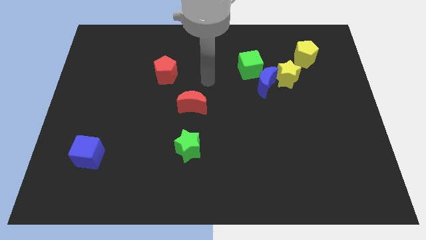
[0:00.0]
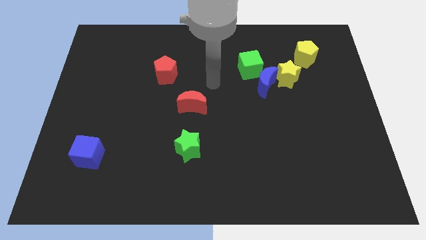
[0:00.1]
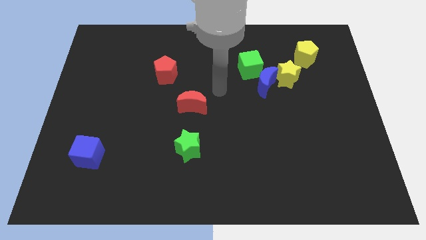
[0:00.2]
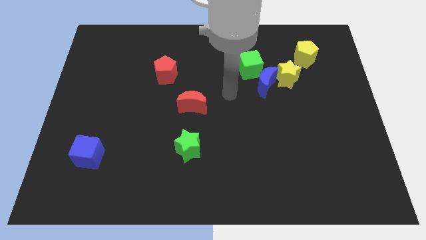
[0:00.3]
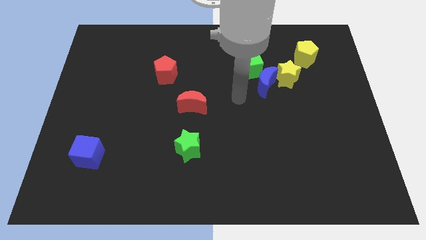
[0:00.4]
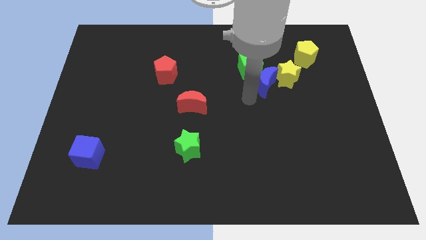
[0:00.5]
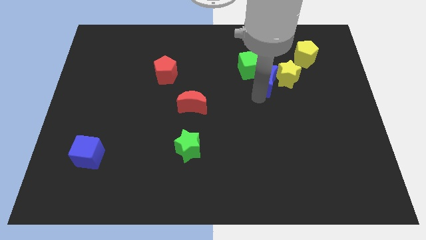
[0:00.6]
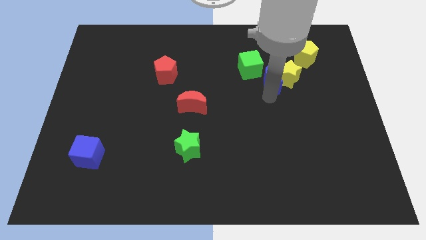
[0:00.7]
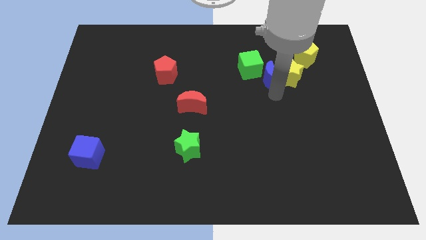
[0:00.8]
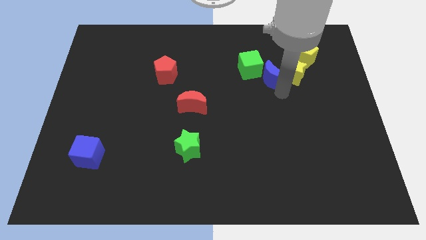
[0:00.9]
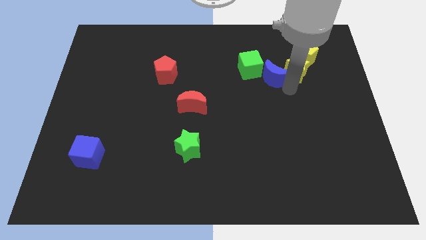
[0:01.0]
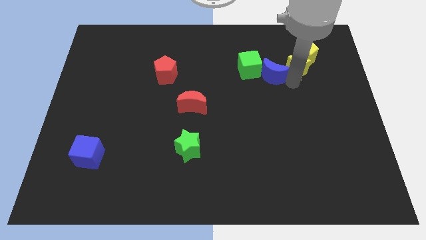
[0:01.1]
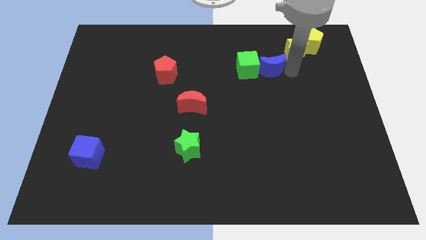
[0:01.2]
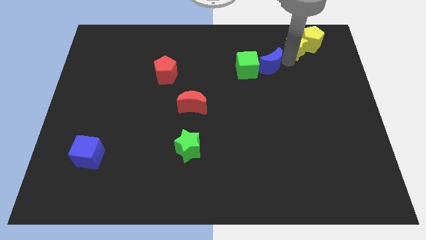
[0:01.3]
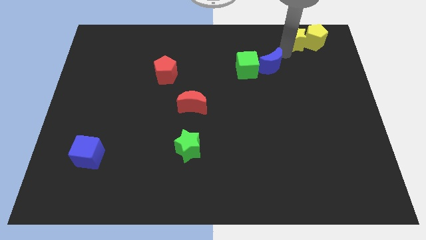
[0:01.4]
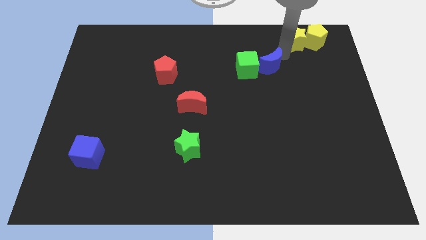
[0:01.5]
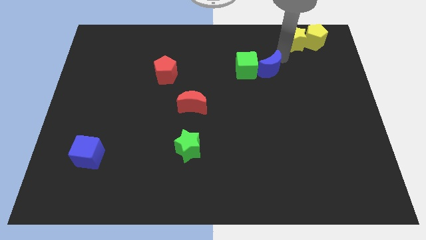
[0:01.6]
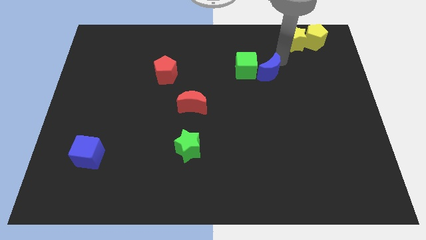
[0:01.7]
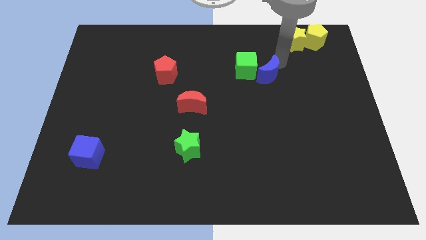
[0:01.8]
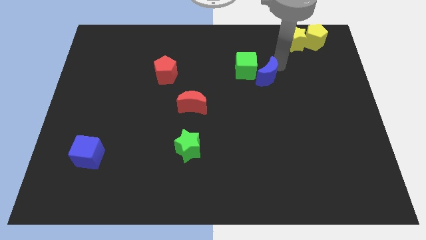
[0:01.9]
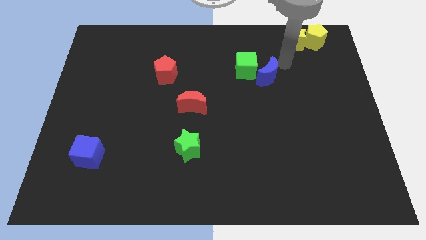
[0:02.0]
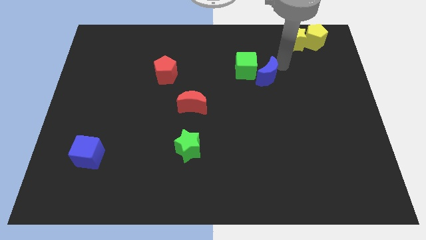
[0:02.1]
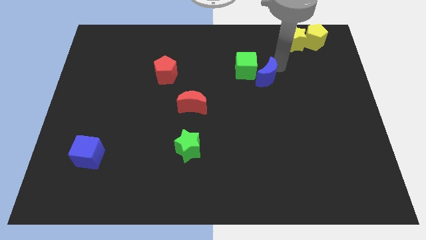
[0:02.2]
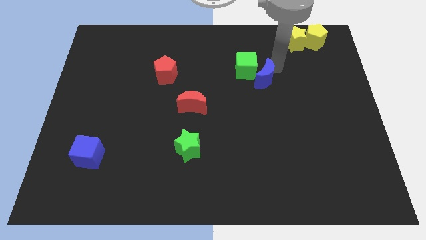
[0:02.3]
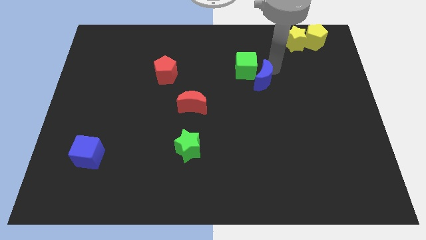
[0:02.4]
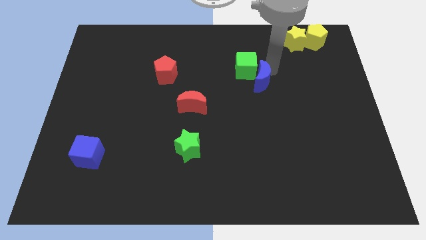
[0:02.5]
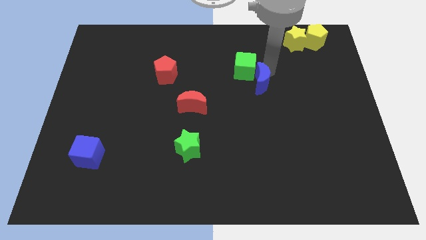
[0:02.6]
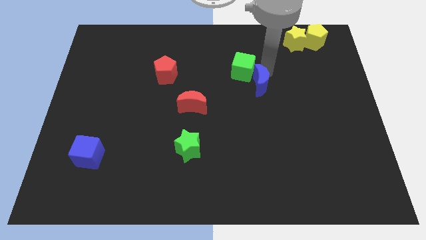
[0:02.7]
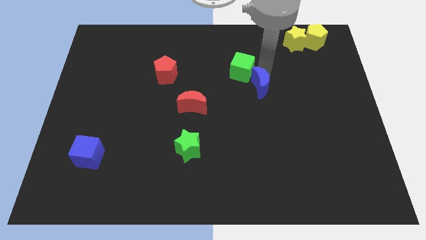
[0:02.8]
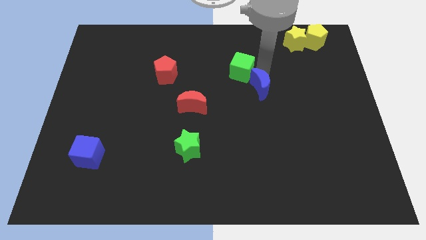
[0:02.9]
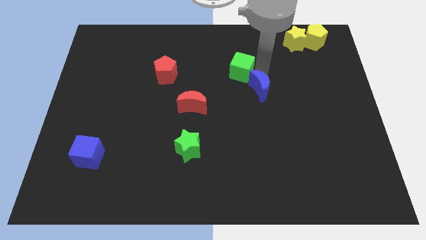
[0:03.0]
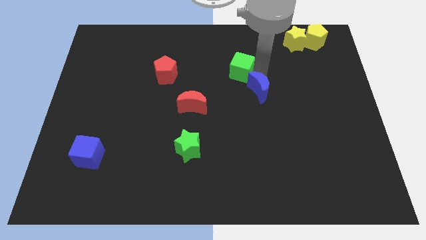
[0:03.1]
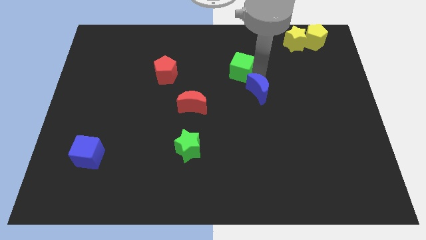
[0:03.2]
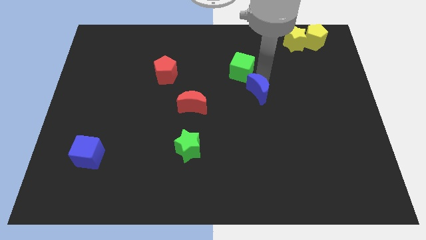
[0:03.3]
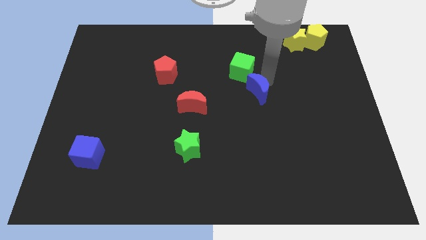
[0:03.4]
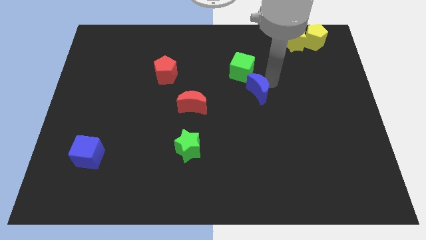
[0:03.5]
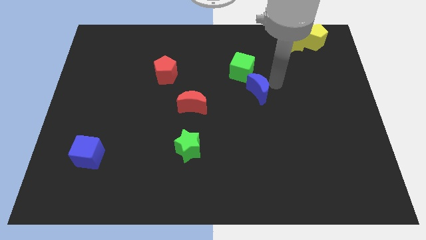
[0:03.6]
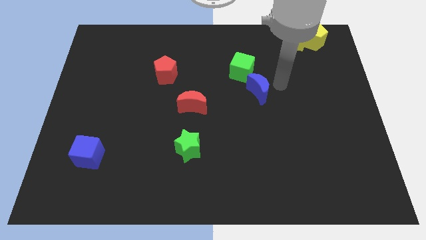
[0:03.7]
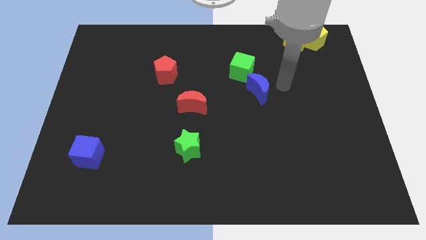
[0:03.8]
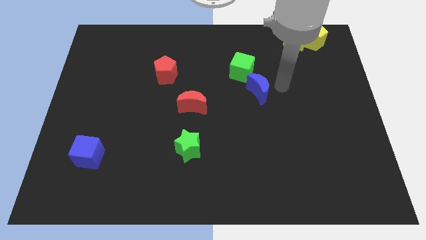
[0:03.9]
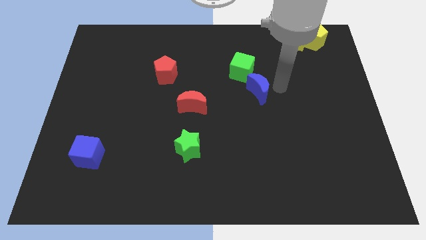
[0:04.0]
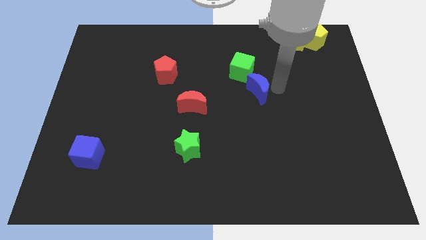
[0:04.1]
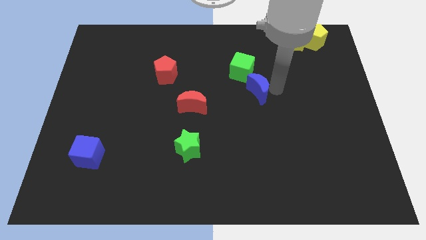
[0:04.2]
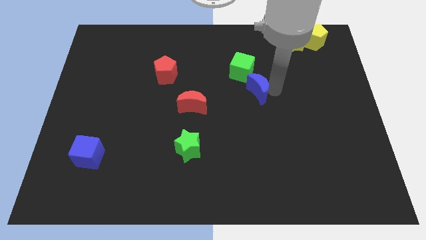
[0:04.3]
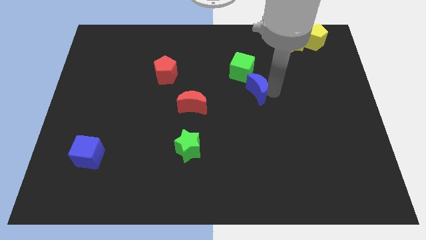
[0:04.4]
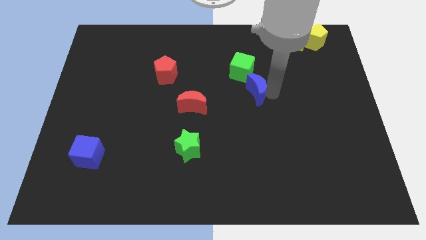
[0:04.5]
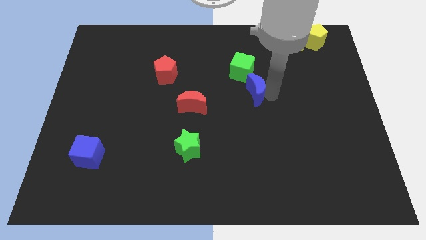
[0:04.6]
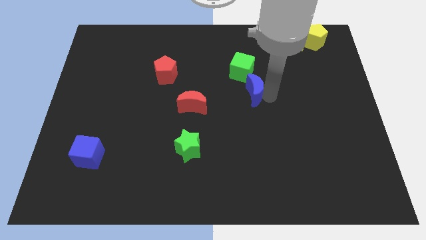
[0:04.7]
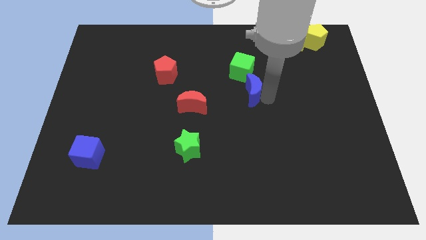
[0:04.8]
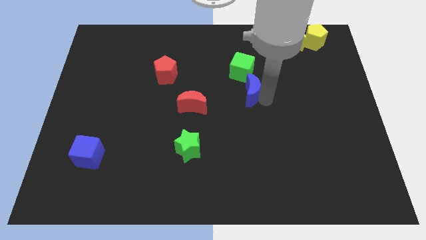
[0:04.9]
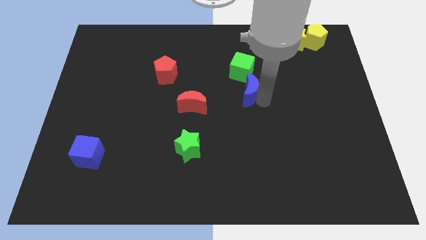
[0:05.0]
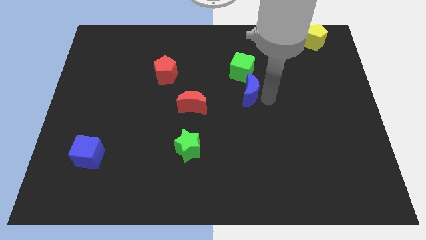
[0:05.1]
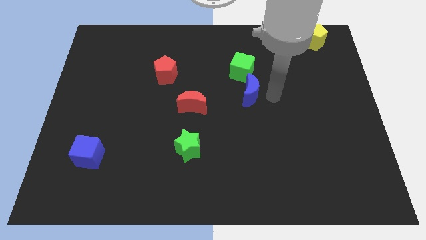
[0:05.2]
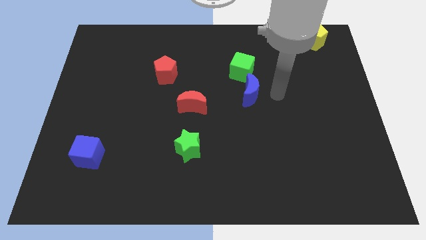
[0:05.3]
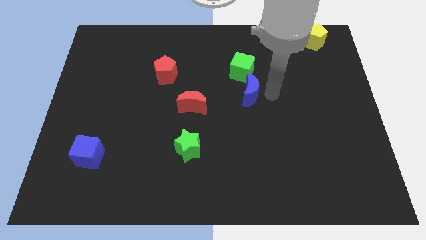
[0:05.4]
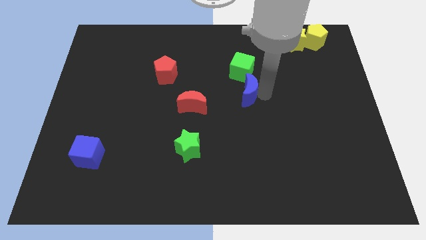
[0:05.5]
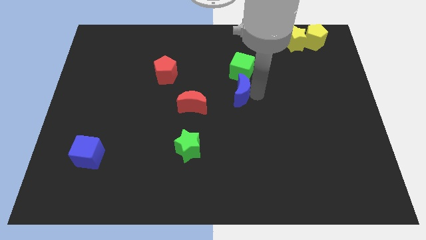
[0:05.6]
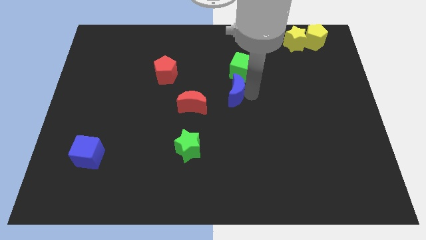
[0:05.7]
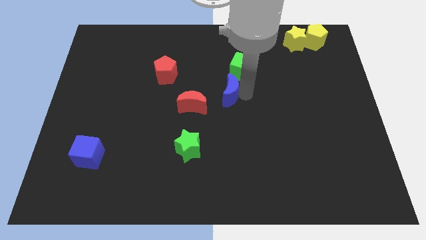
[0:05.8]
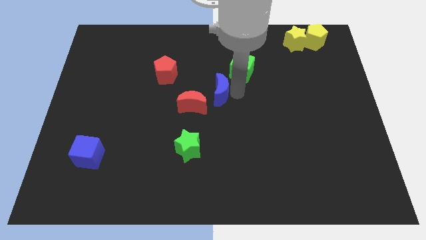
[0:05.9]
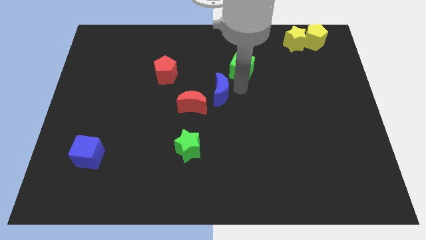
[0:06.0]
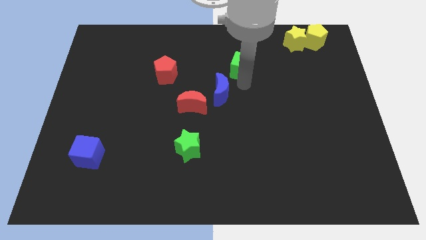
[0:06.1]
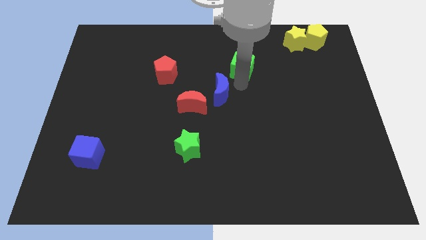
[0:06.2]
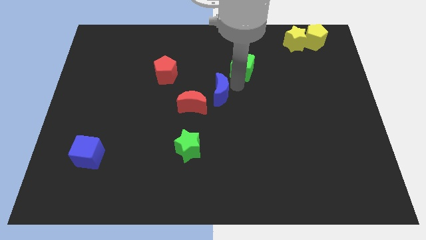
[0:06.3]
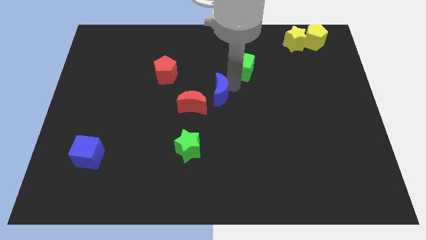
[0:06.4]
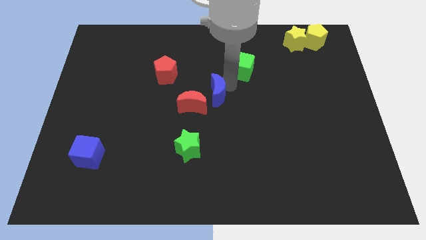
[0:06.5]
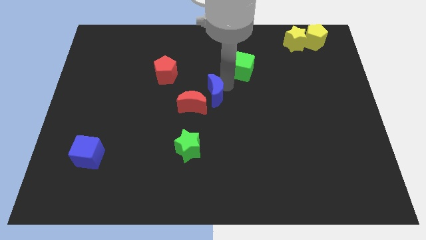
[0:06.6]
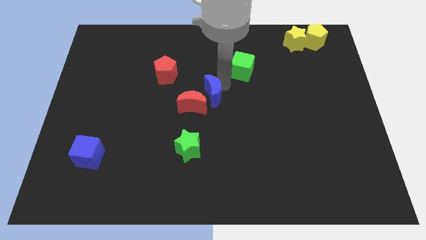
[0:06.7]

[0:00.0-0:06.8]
put the blue moon to the red moon
